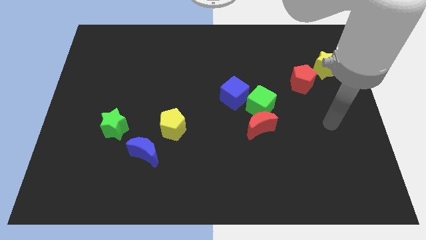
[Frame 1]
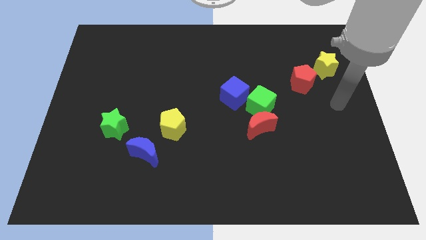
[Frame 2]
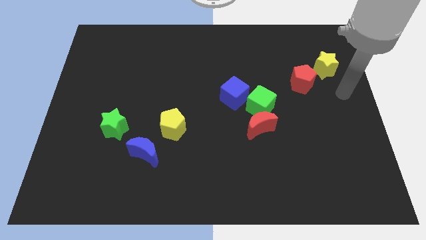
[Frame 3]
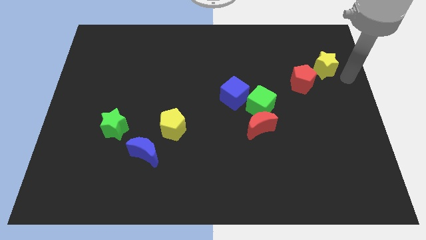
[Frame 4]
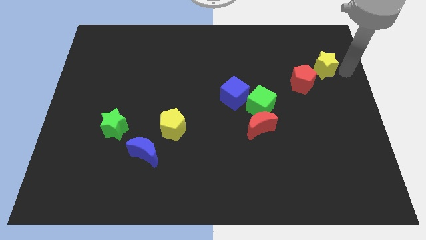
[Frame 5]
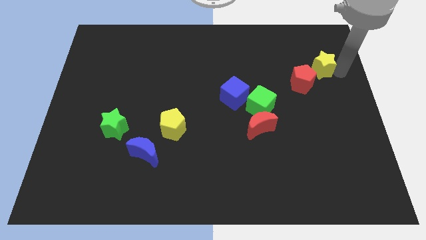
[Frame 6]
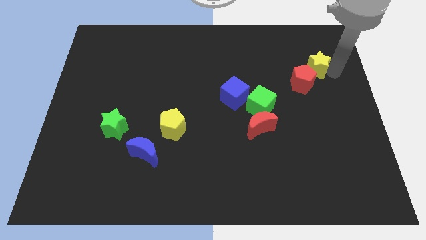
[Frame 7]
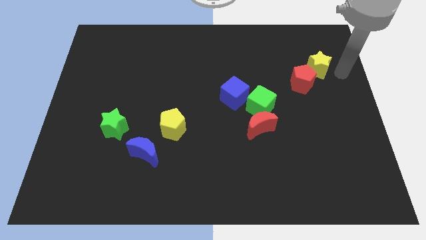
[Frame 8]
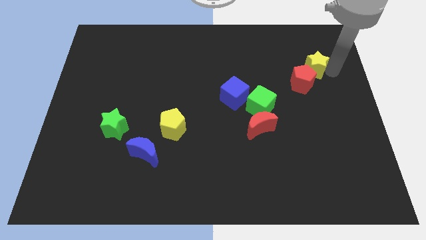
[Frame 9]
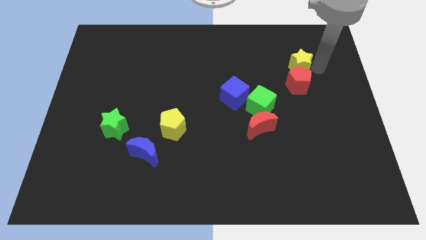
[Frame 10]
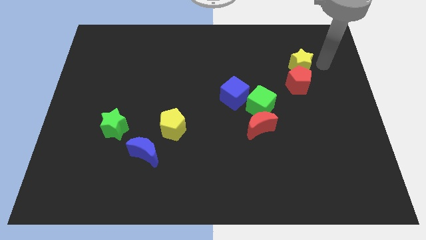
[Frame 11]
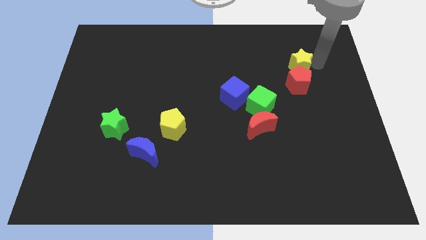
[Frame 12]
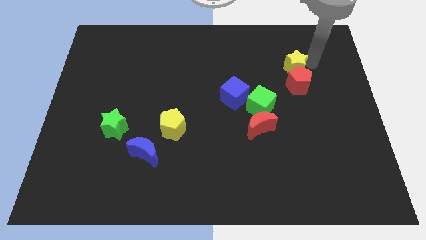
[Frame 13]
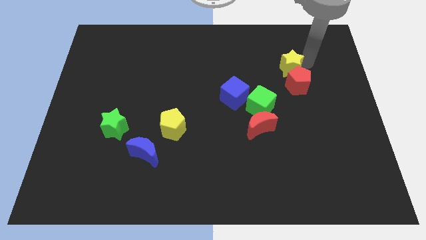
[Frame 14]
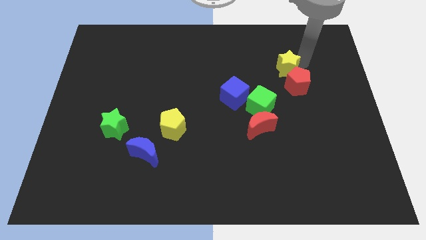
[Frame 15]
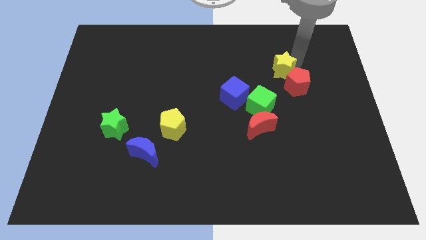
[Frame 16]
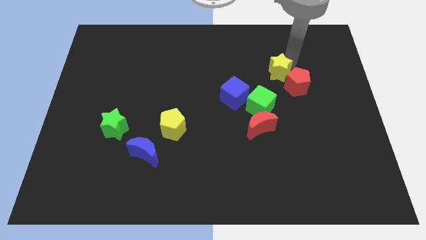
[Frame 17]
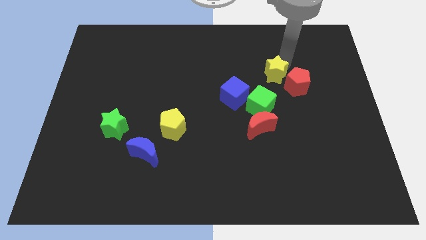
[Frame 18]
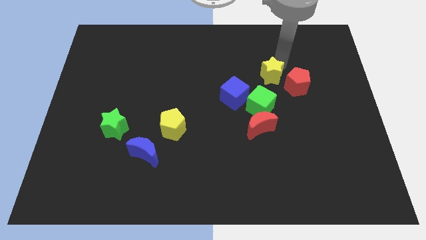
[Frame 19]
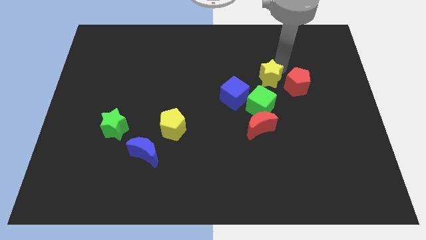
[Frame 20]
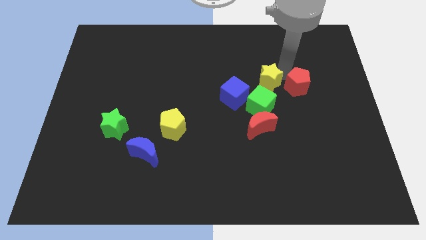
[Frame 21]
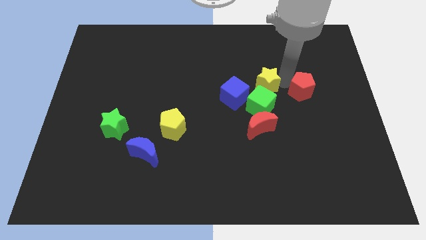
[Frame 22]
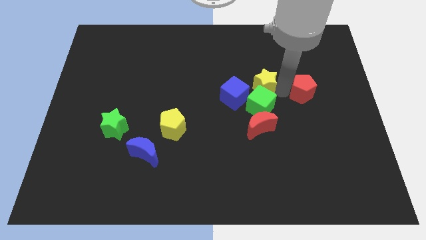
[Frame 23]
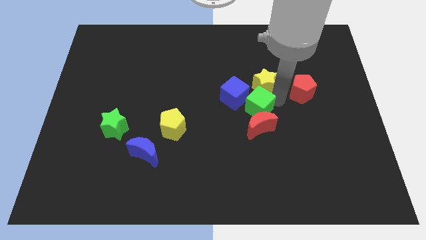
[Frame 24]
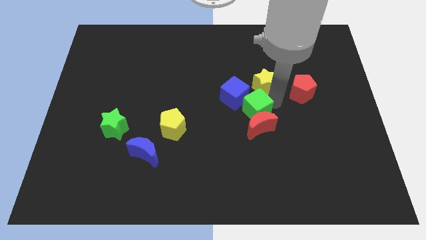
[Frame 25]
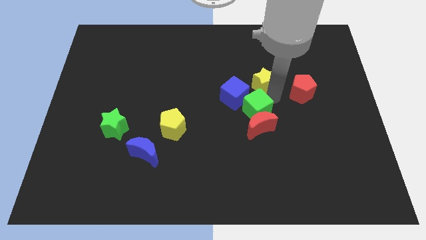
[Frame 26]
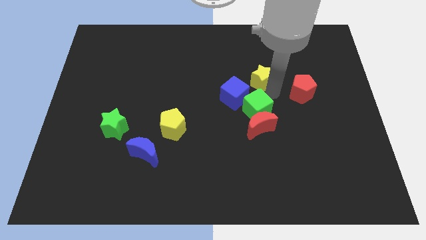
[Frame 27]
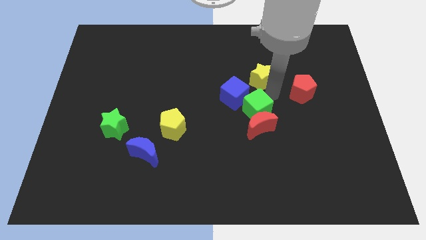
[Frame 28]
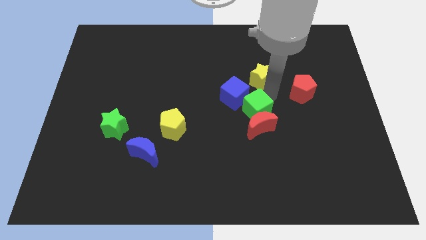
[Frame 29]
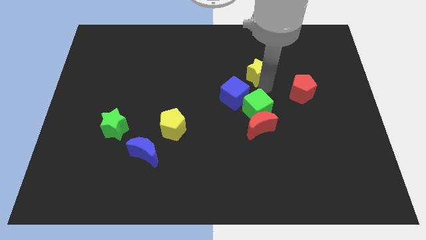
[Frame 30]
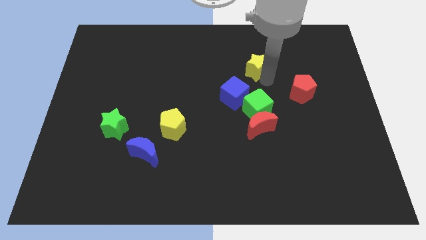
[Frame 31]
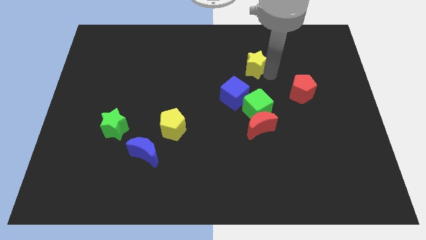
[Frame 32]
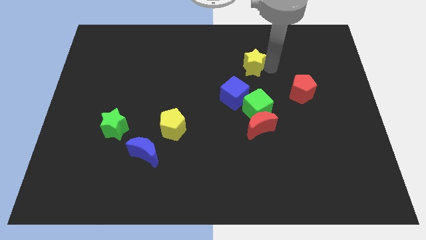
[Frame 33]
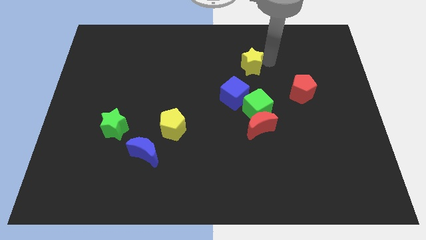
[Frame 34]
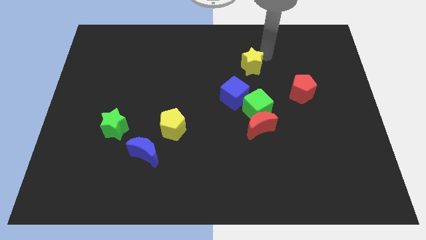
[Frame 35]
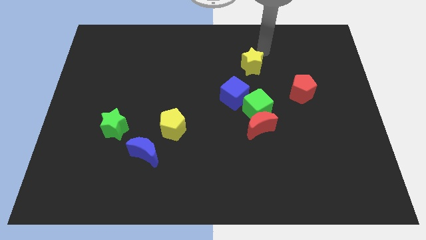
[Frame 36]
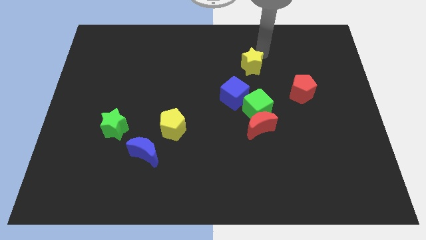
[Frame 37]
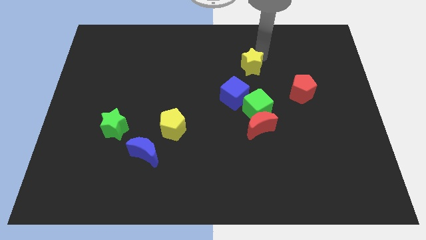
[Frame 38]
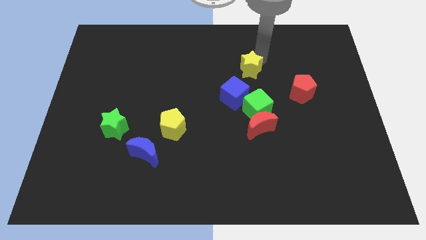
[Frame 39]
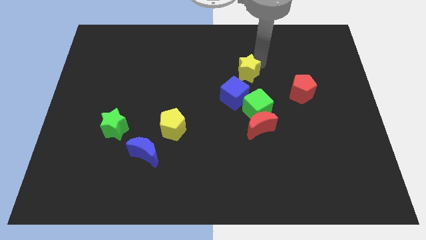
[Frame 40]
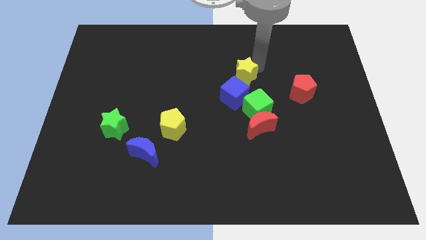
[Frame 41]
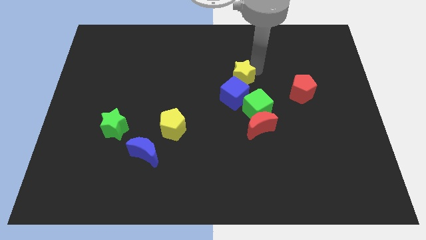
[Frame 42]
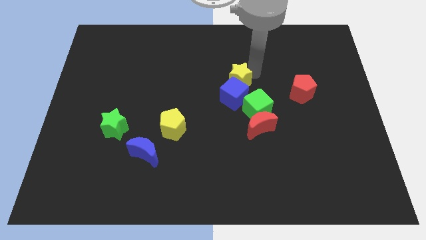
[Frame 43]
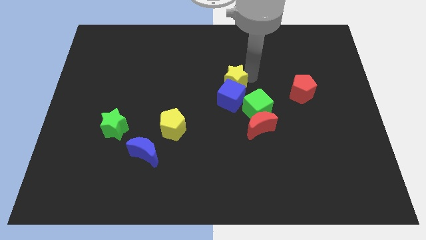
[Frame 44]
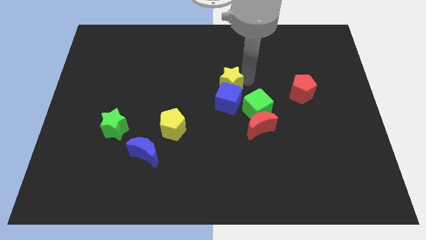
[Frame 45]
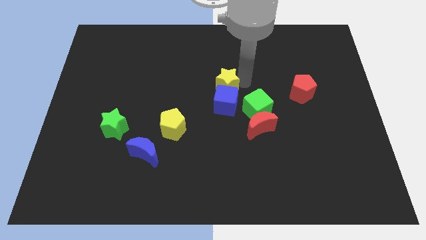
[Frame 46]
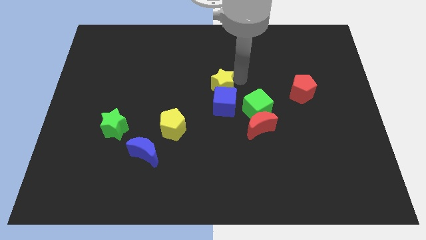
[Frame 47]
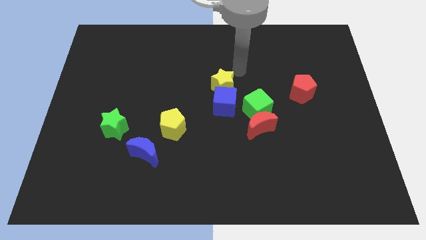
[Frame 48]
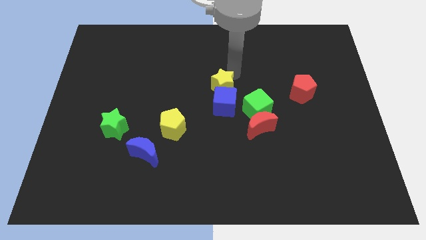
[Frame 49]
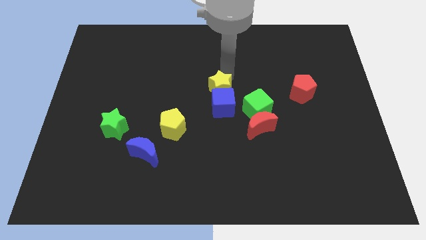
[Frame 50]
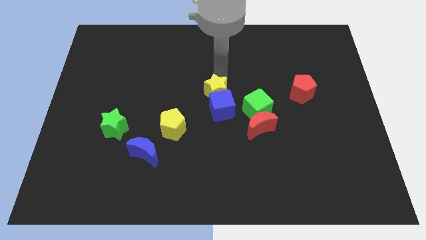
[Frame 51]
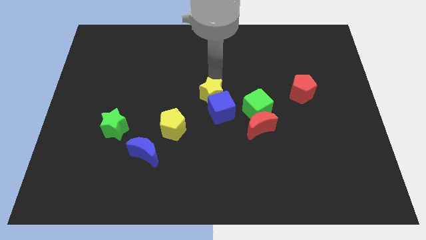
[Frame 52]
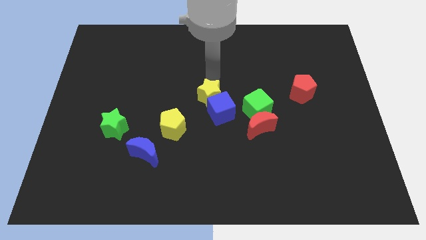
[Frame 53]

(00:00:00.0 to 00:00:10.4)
push the yellow star to the top right side of the yellow pentagon

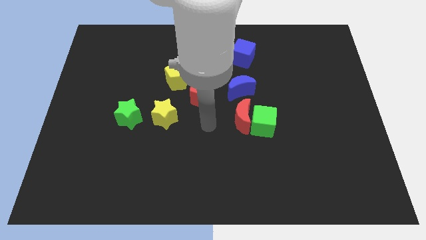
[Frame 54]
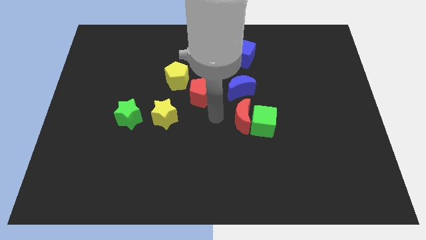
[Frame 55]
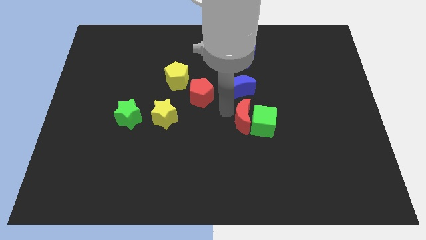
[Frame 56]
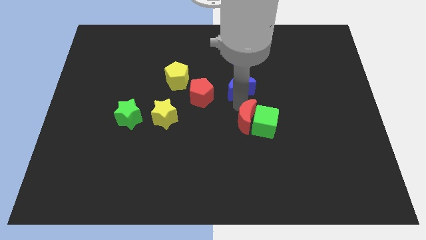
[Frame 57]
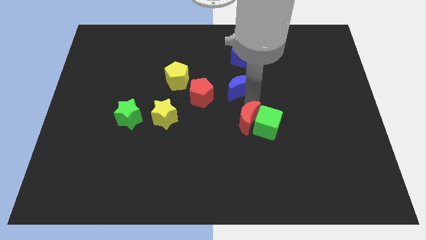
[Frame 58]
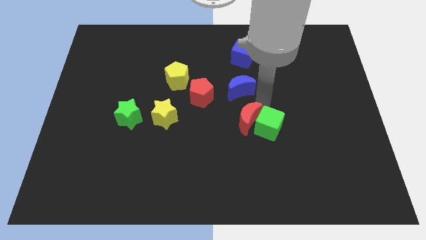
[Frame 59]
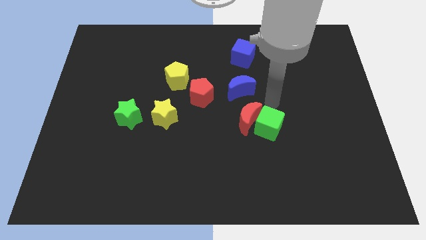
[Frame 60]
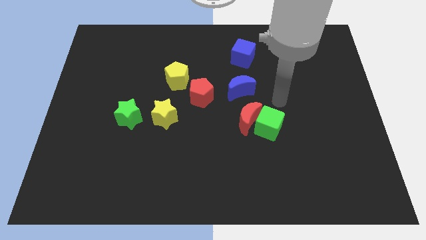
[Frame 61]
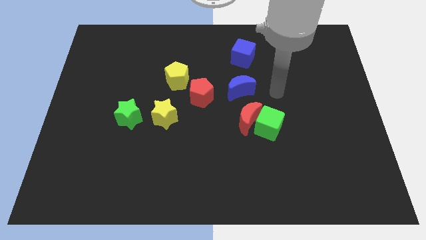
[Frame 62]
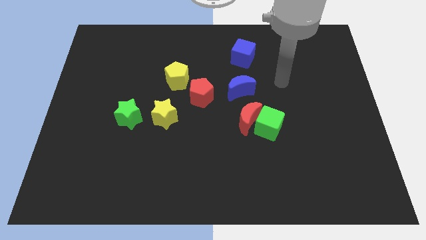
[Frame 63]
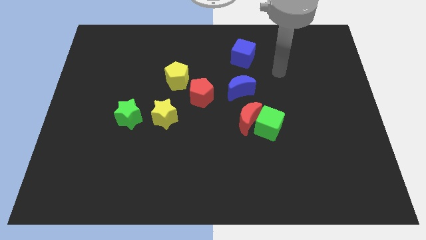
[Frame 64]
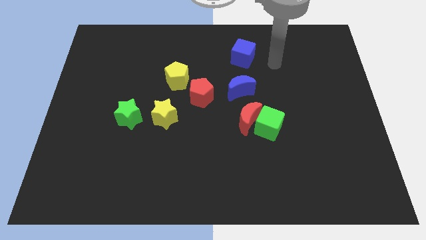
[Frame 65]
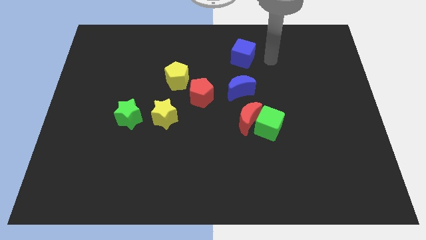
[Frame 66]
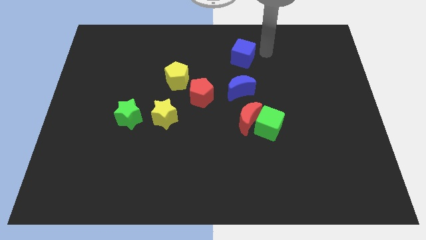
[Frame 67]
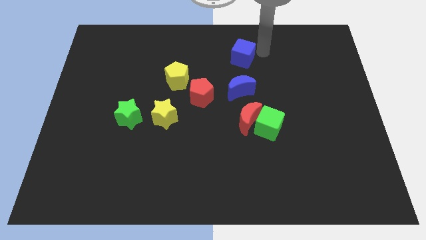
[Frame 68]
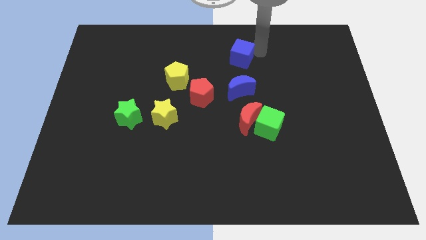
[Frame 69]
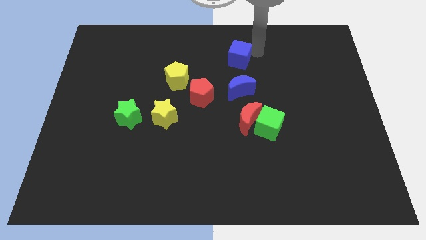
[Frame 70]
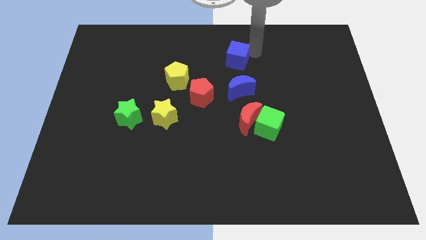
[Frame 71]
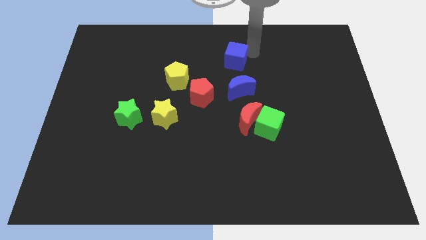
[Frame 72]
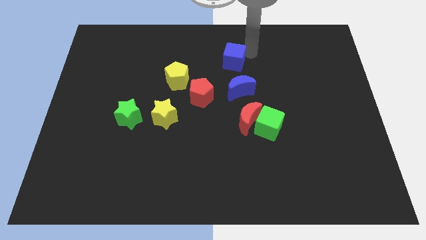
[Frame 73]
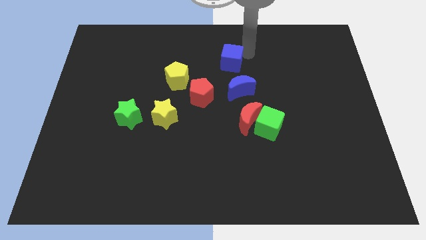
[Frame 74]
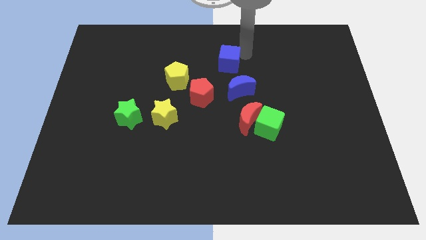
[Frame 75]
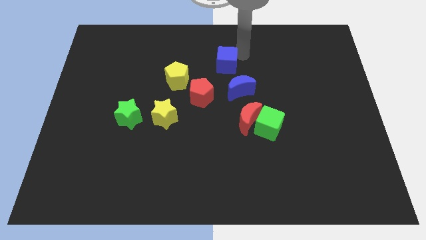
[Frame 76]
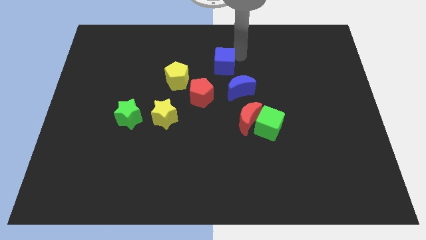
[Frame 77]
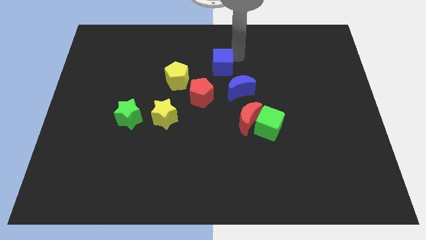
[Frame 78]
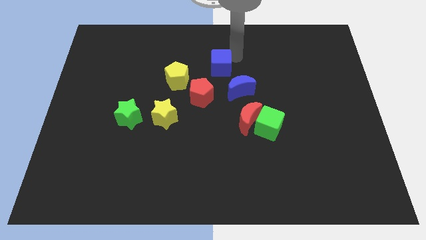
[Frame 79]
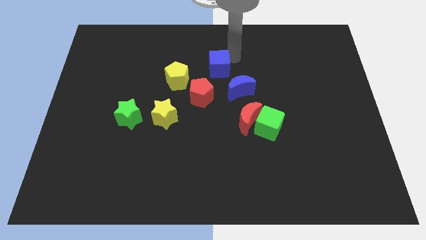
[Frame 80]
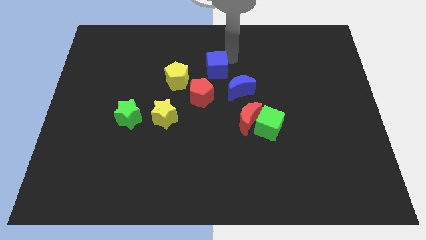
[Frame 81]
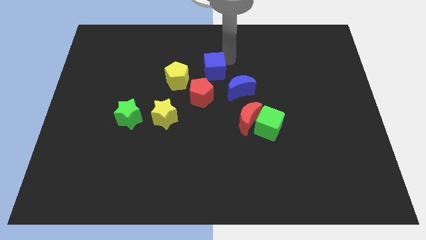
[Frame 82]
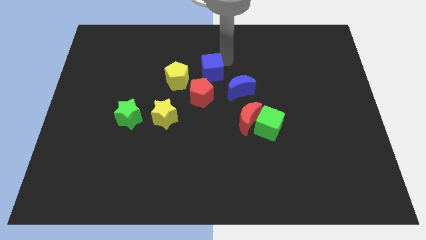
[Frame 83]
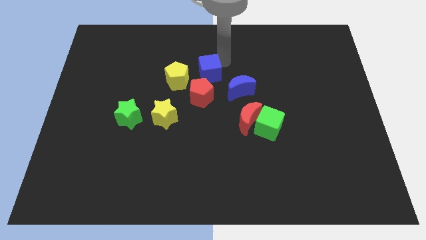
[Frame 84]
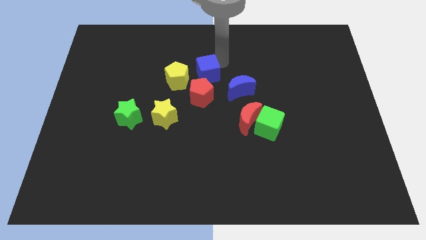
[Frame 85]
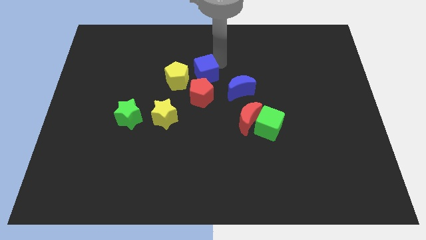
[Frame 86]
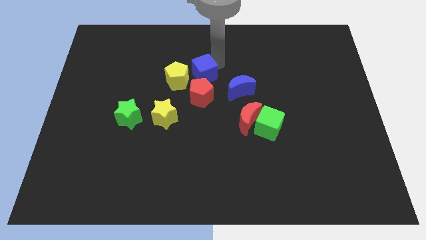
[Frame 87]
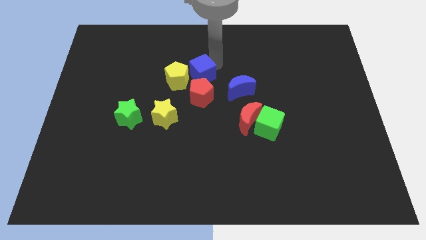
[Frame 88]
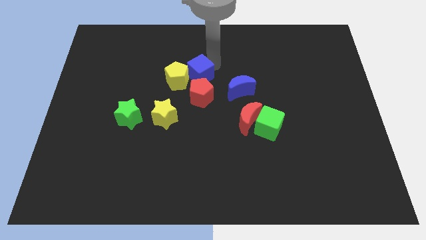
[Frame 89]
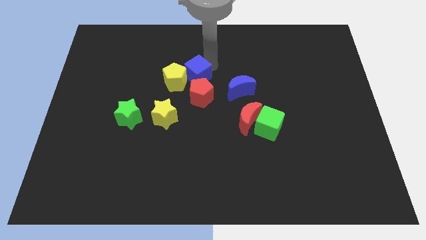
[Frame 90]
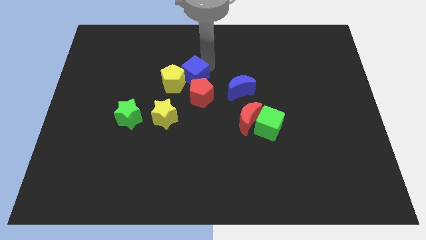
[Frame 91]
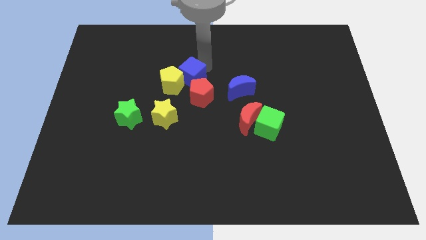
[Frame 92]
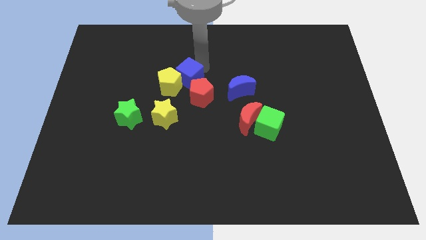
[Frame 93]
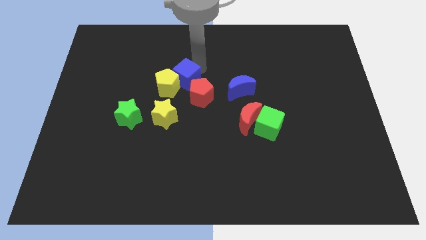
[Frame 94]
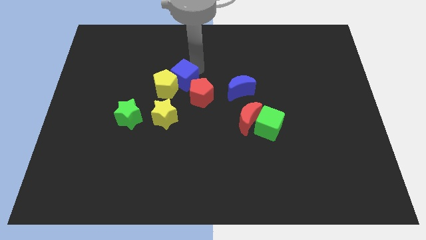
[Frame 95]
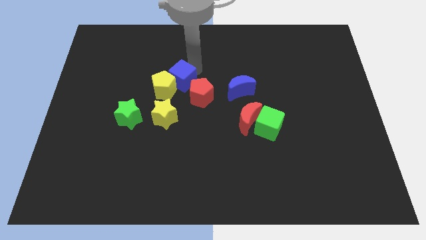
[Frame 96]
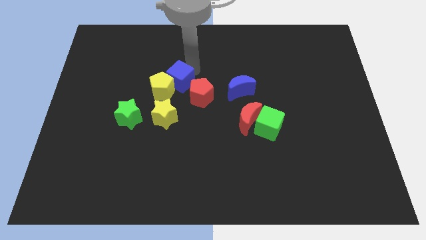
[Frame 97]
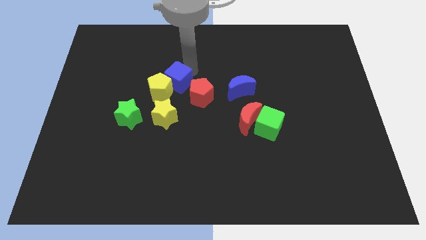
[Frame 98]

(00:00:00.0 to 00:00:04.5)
put the blue cube to the left side of the red pentagon
